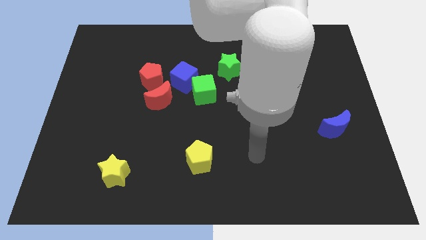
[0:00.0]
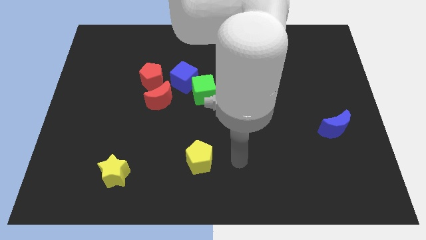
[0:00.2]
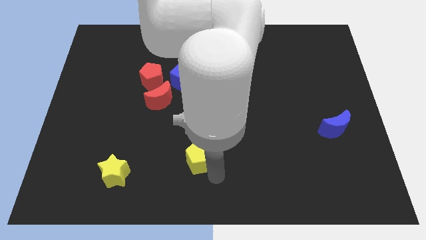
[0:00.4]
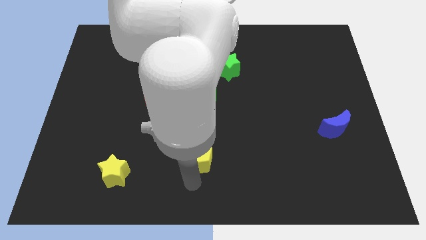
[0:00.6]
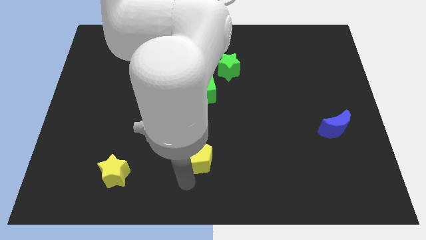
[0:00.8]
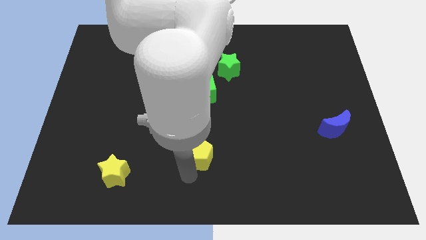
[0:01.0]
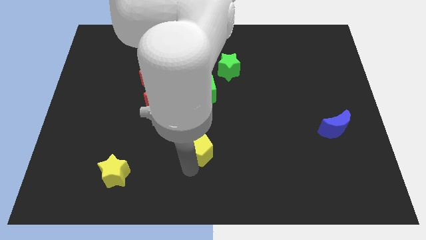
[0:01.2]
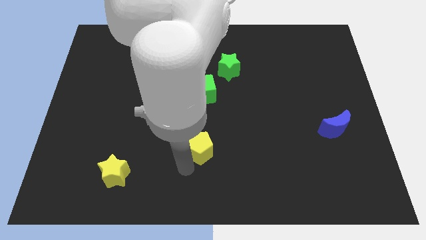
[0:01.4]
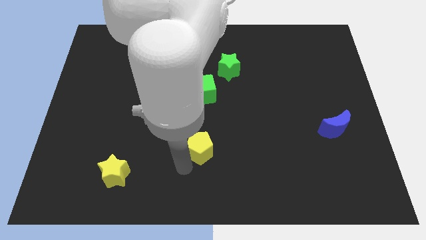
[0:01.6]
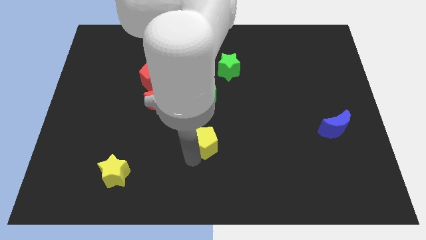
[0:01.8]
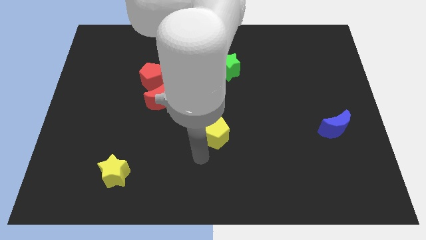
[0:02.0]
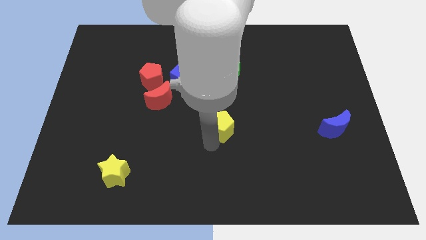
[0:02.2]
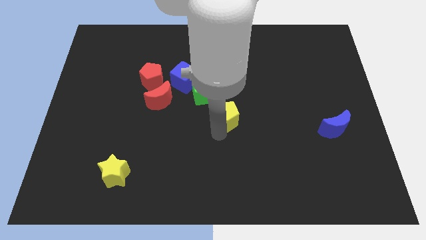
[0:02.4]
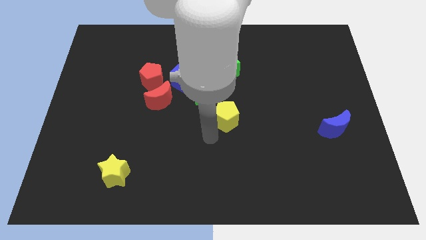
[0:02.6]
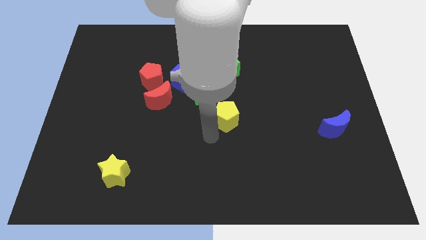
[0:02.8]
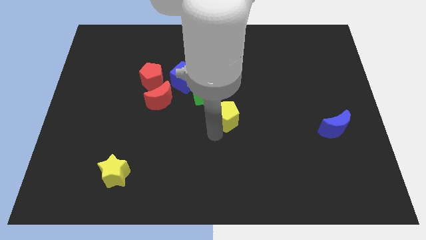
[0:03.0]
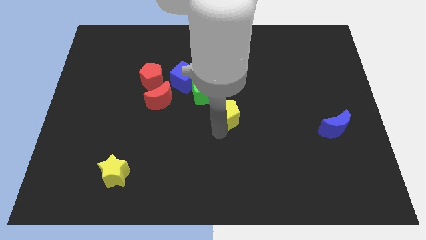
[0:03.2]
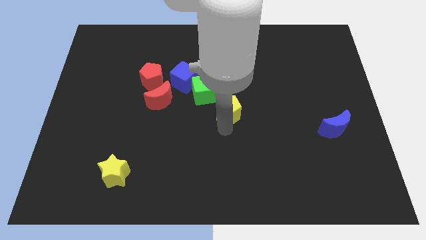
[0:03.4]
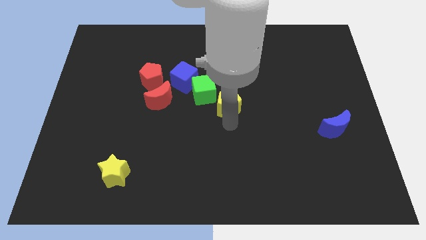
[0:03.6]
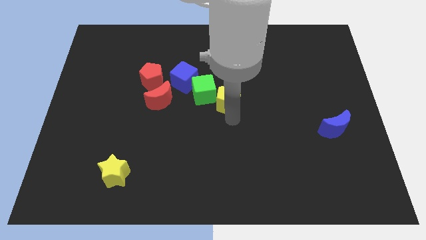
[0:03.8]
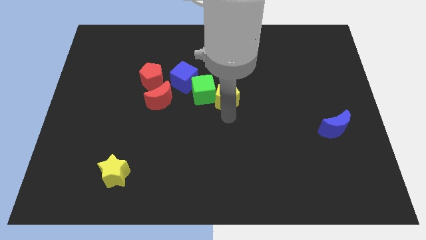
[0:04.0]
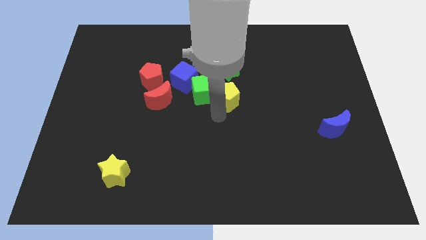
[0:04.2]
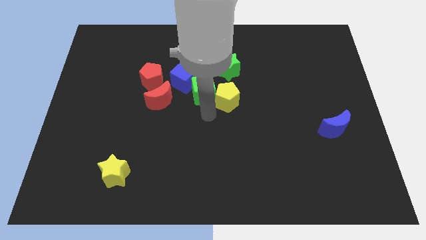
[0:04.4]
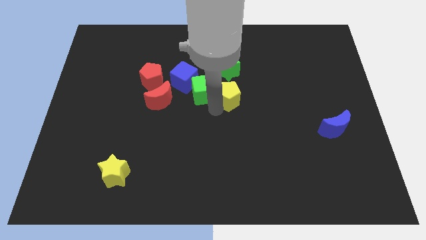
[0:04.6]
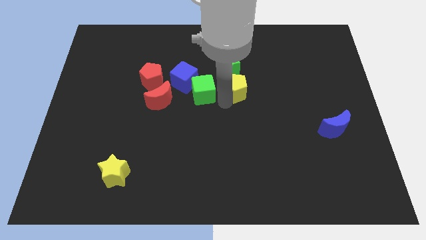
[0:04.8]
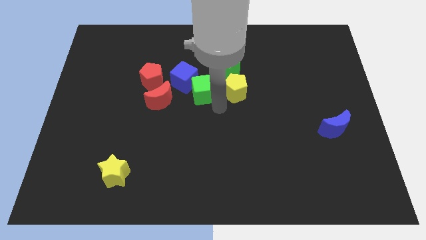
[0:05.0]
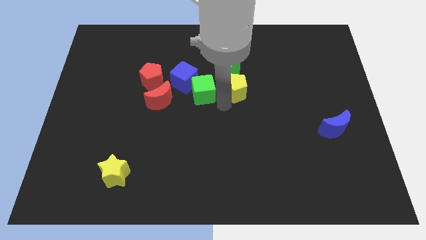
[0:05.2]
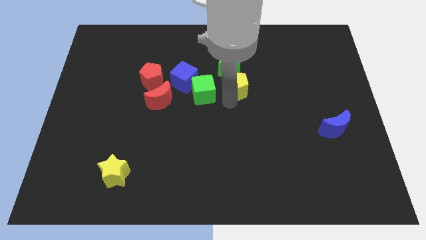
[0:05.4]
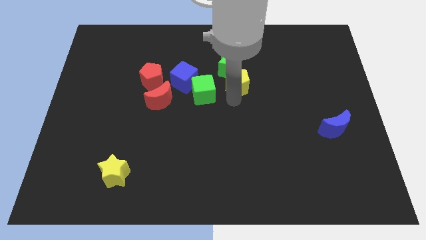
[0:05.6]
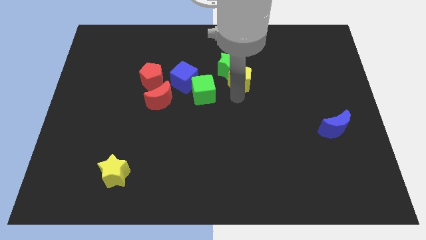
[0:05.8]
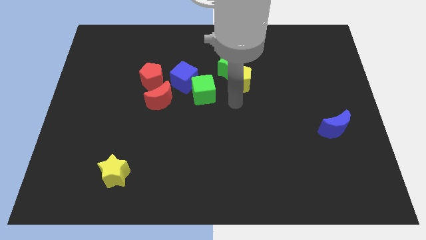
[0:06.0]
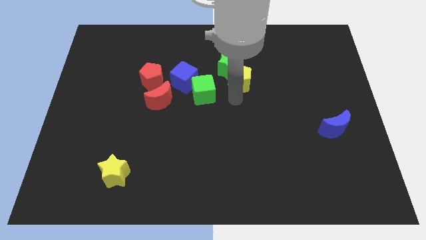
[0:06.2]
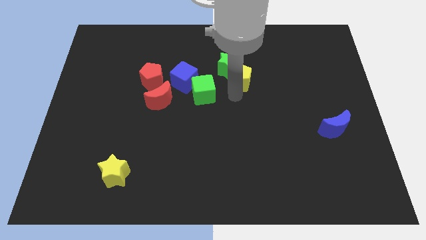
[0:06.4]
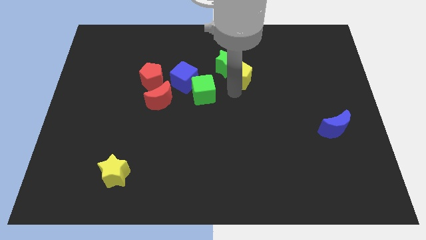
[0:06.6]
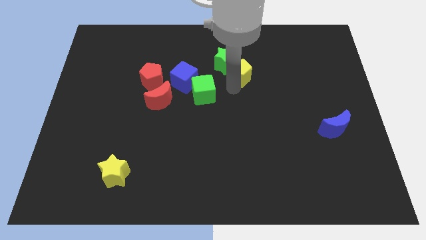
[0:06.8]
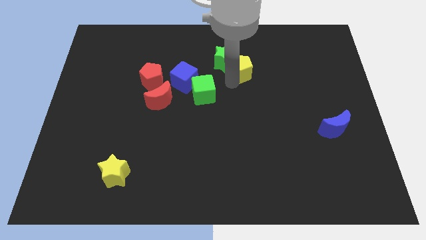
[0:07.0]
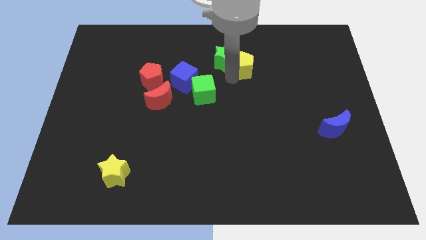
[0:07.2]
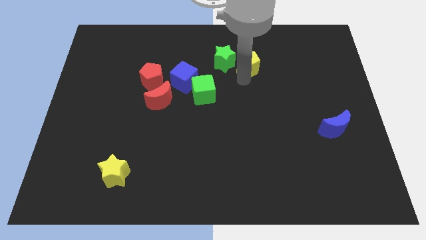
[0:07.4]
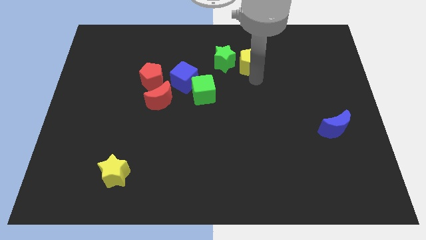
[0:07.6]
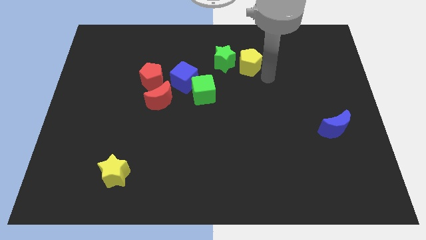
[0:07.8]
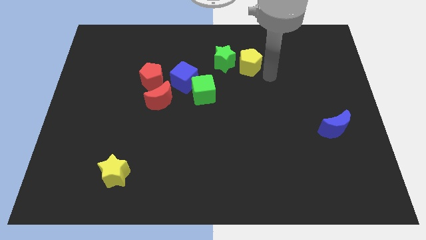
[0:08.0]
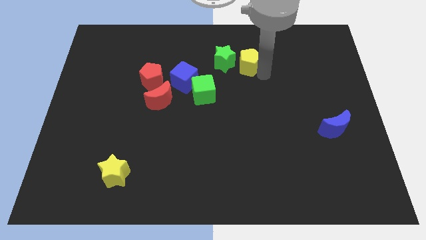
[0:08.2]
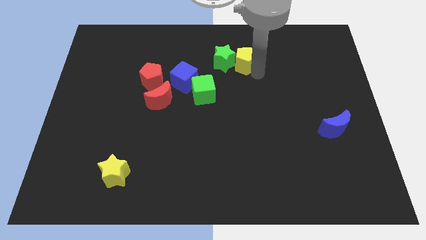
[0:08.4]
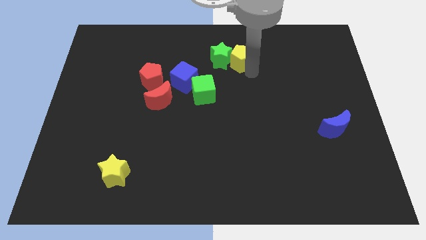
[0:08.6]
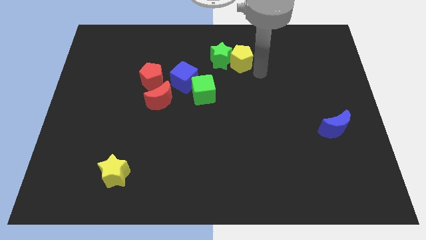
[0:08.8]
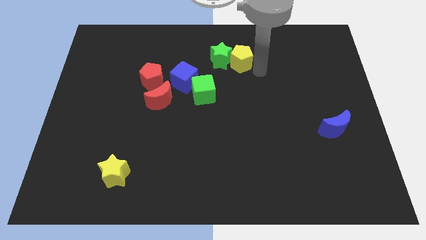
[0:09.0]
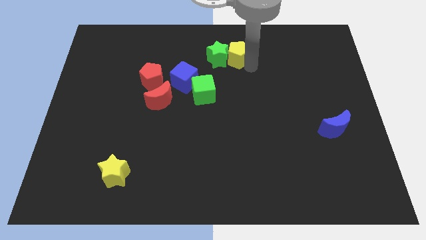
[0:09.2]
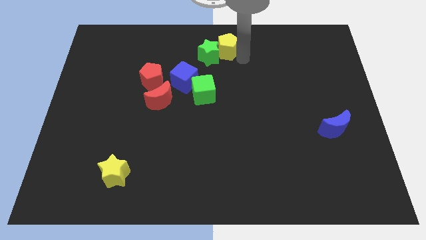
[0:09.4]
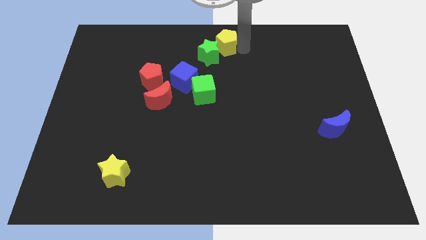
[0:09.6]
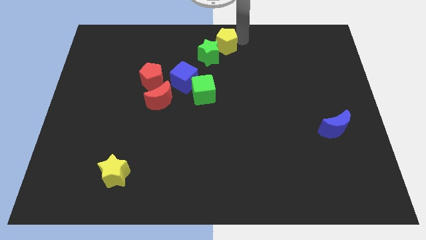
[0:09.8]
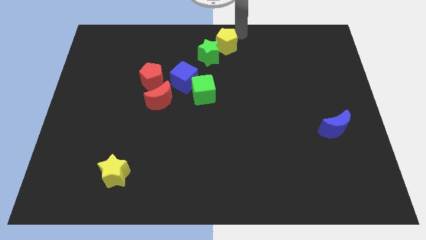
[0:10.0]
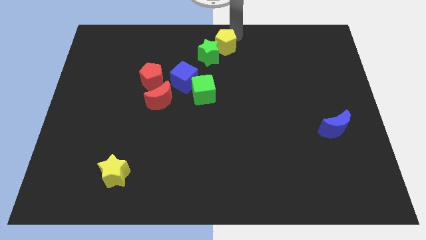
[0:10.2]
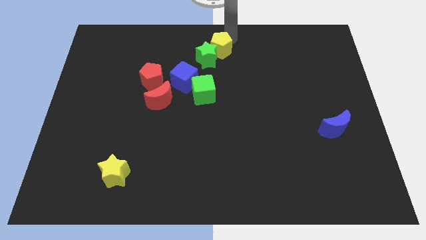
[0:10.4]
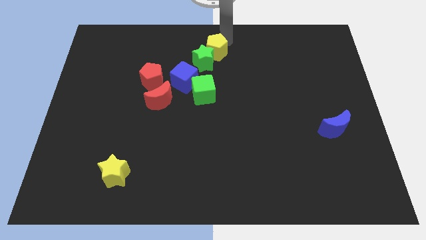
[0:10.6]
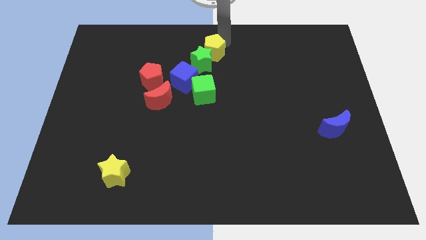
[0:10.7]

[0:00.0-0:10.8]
move the yellow pentagon to the top right of the blue cube

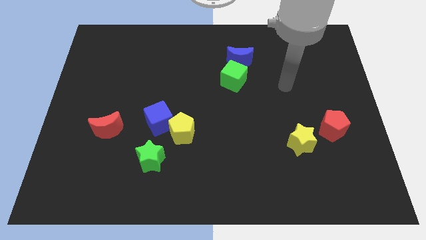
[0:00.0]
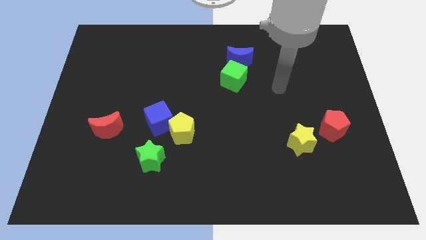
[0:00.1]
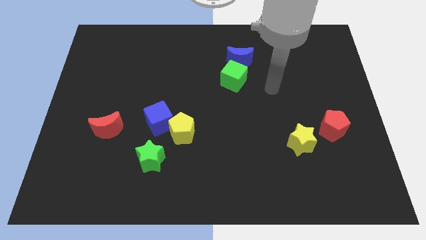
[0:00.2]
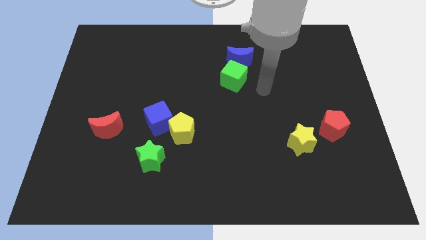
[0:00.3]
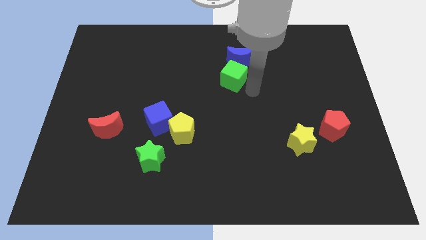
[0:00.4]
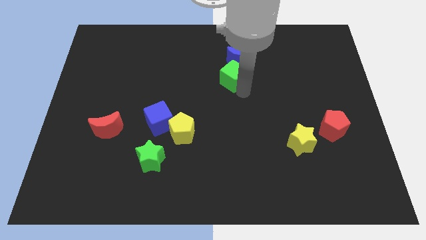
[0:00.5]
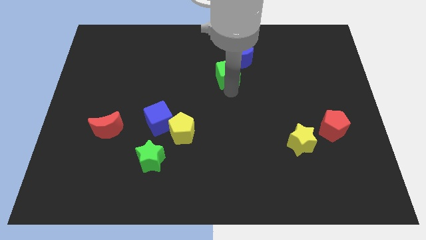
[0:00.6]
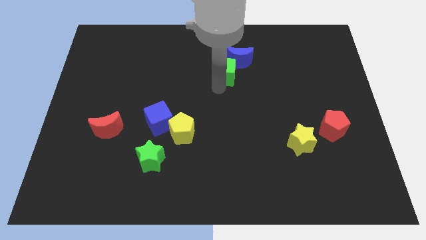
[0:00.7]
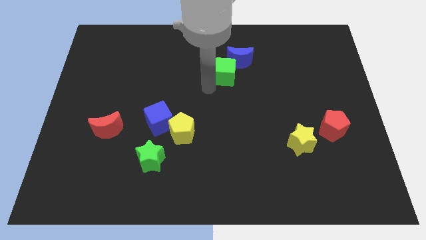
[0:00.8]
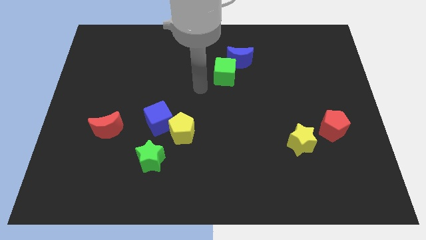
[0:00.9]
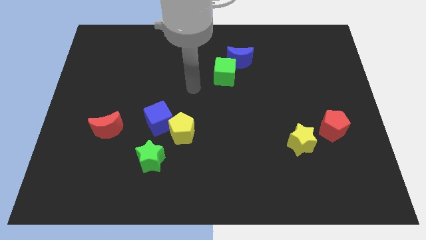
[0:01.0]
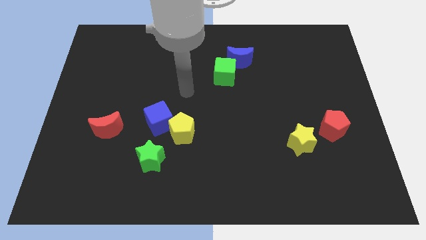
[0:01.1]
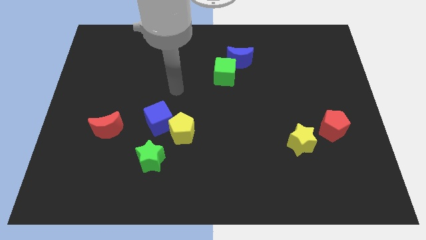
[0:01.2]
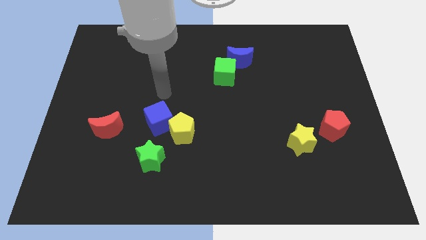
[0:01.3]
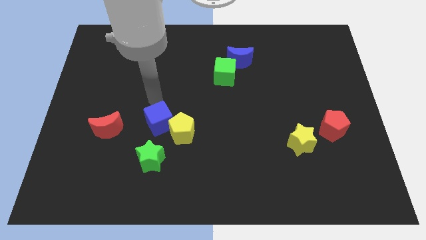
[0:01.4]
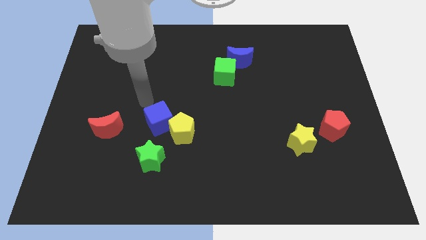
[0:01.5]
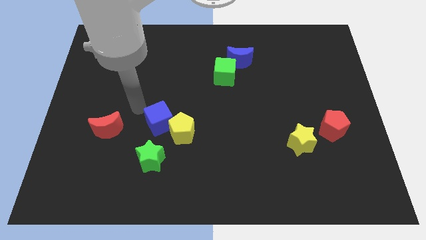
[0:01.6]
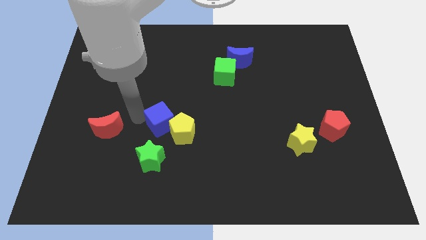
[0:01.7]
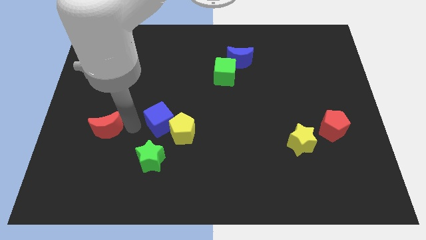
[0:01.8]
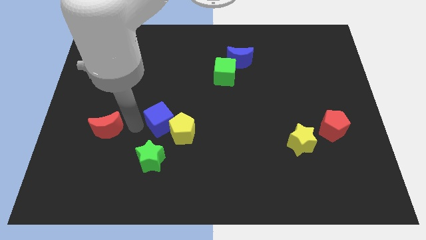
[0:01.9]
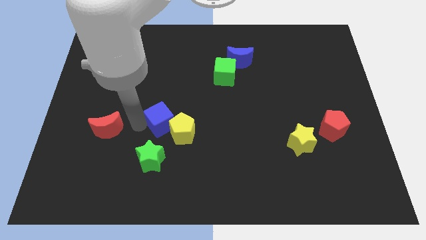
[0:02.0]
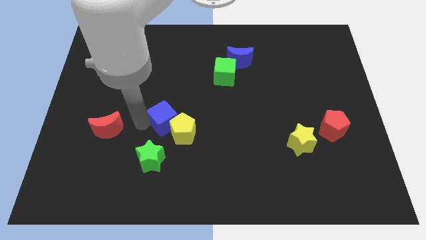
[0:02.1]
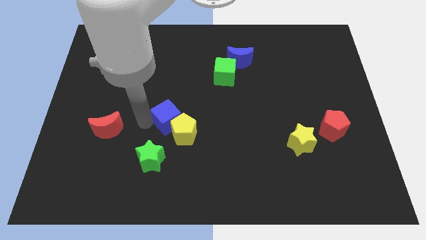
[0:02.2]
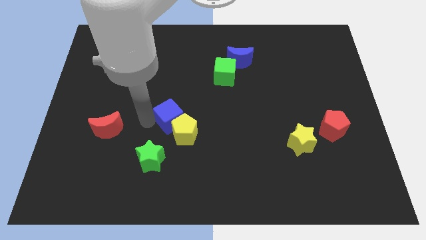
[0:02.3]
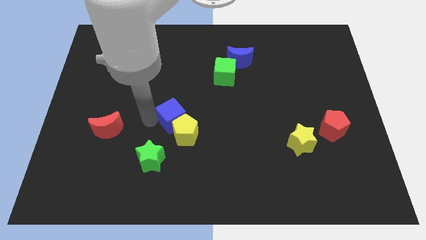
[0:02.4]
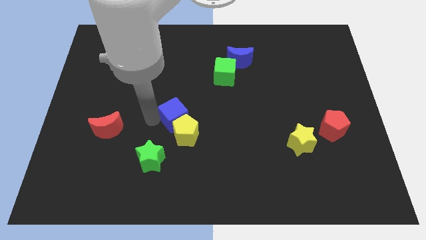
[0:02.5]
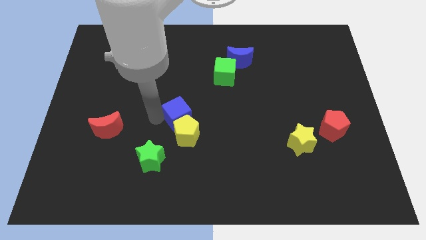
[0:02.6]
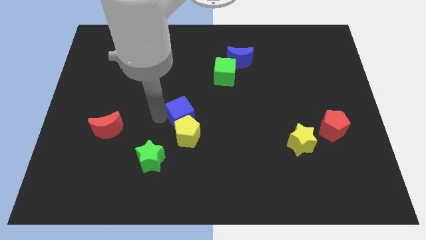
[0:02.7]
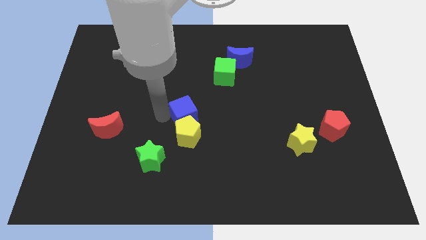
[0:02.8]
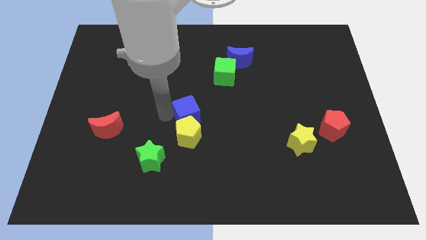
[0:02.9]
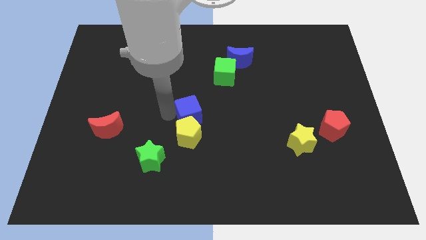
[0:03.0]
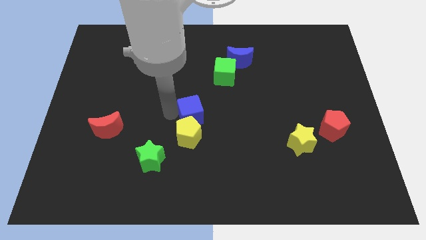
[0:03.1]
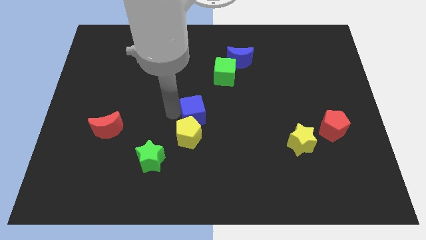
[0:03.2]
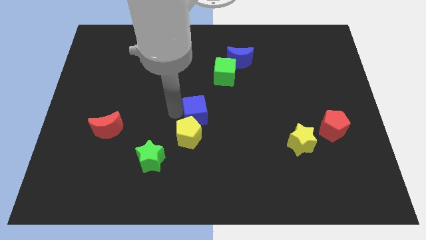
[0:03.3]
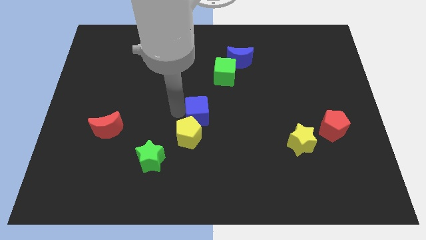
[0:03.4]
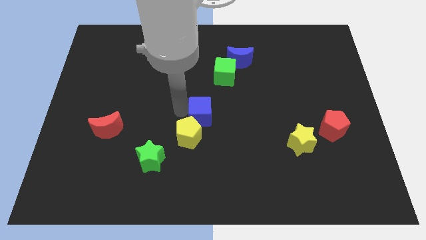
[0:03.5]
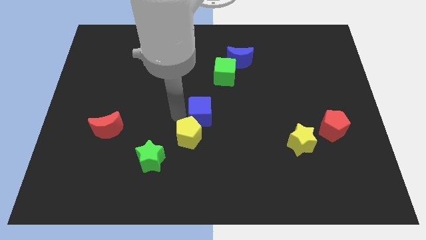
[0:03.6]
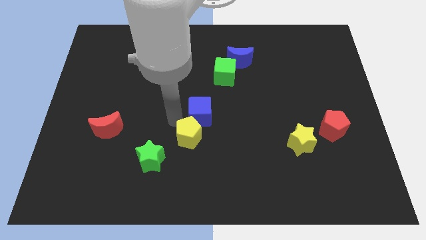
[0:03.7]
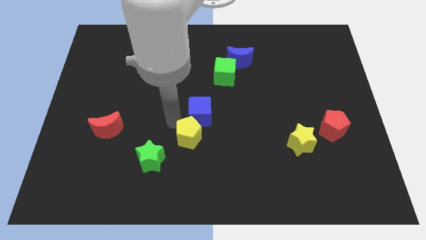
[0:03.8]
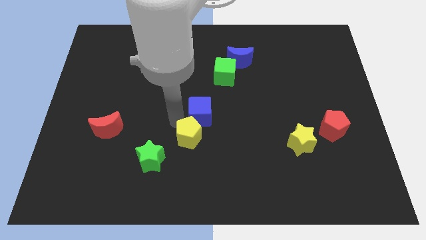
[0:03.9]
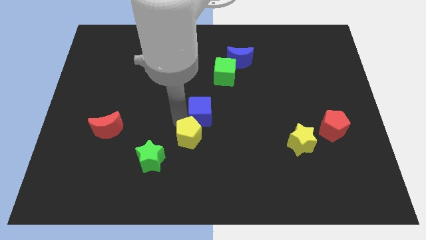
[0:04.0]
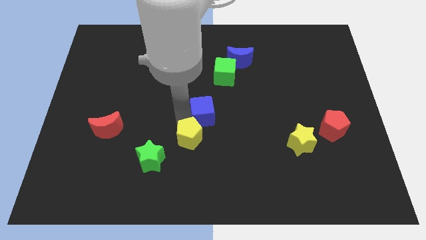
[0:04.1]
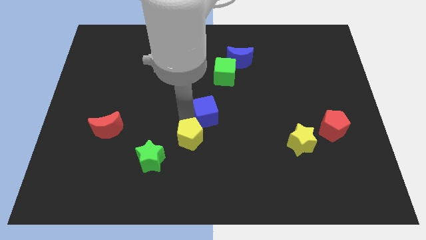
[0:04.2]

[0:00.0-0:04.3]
move the blue cube to the bottom of the green cube
